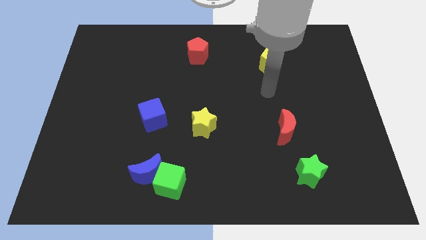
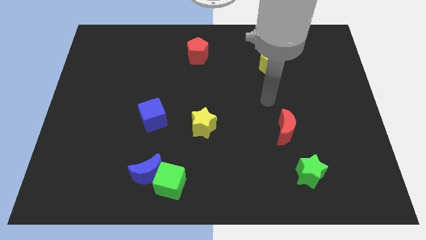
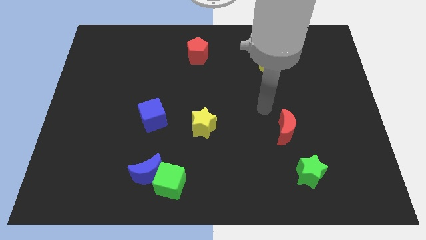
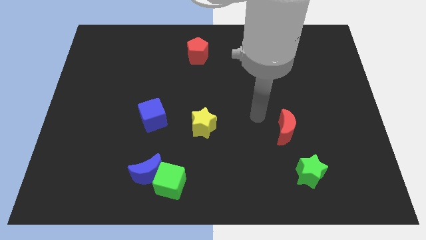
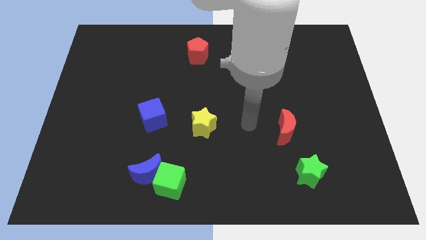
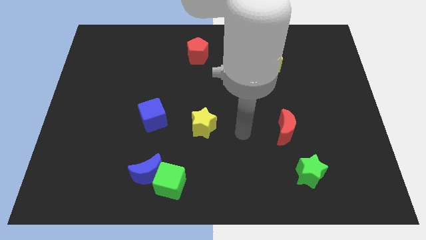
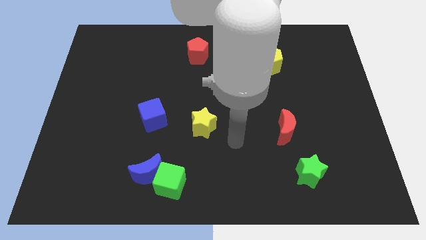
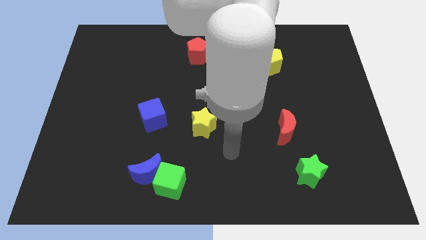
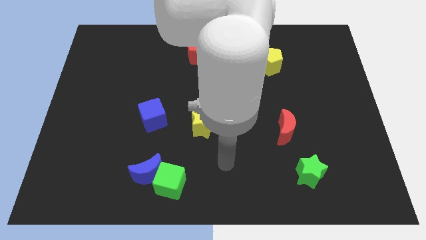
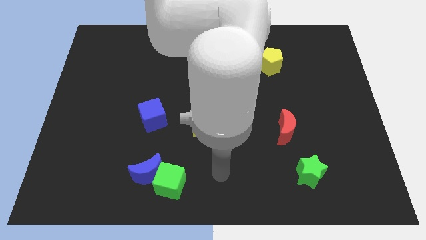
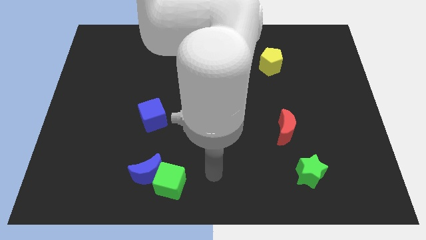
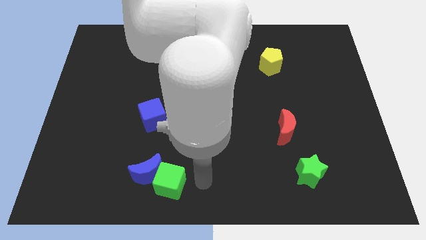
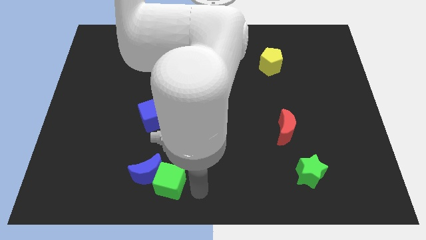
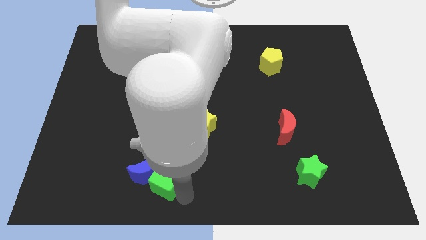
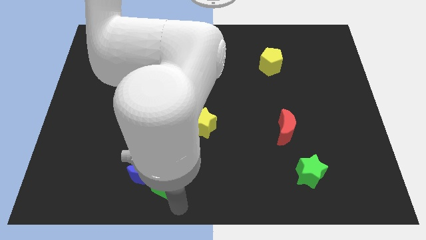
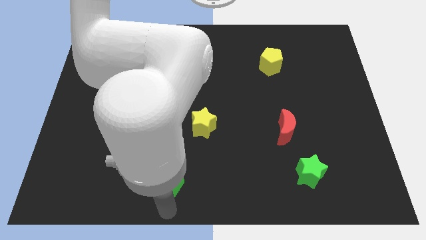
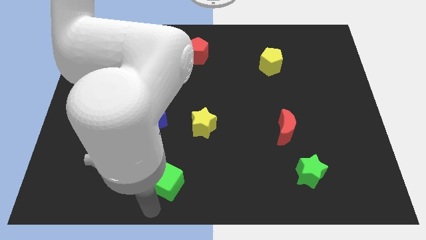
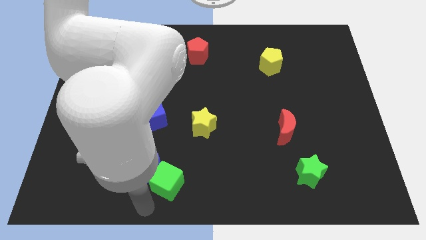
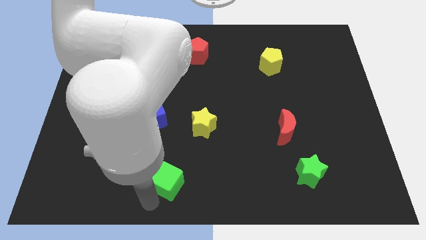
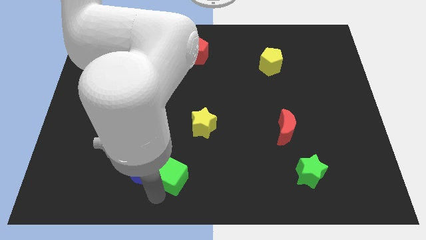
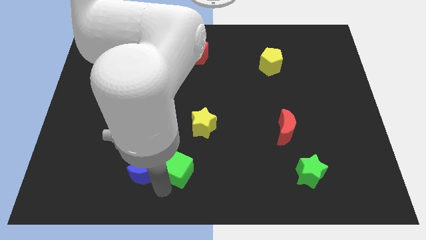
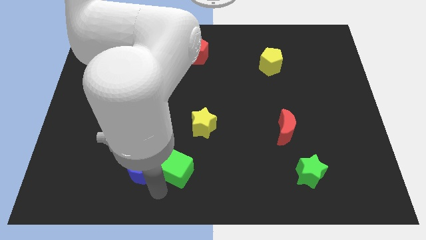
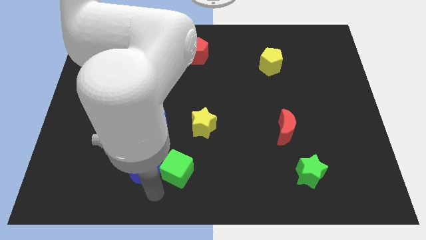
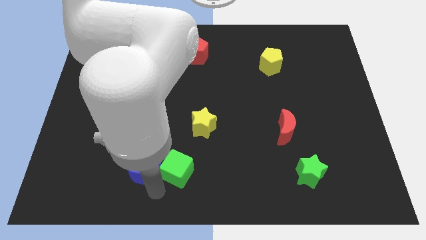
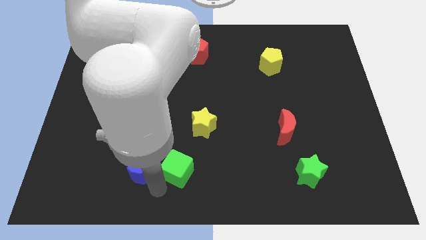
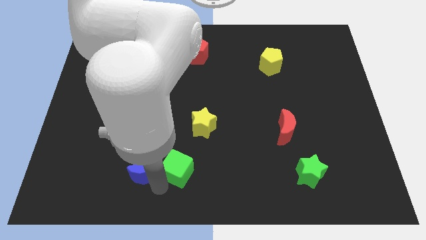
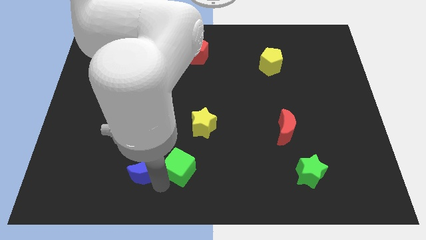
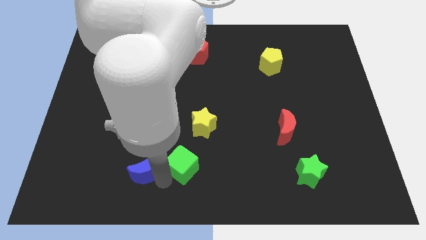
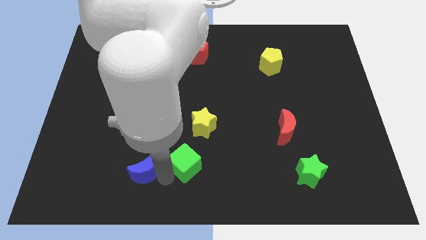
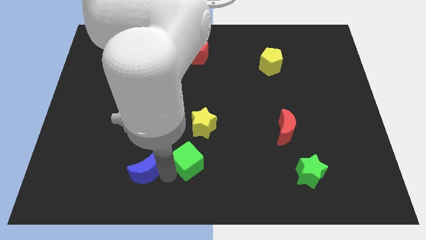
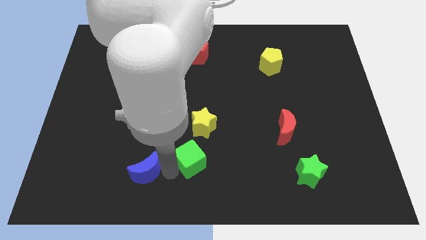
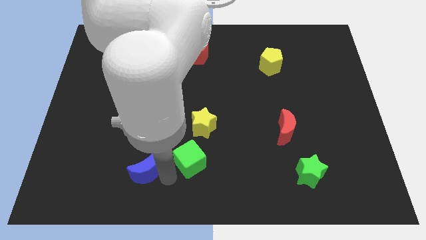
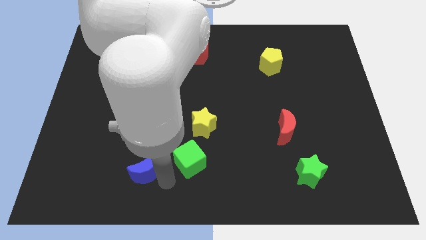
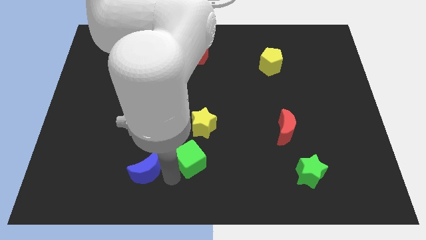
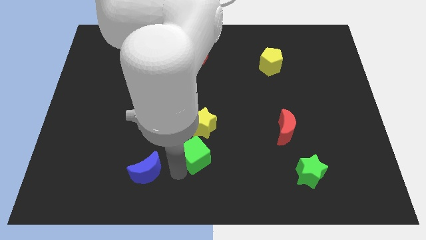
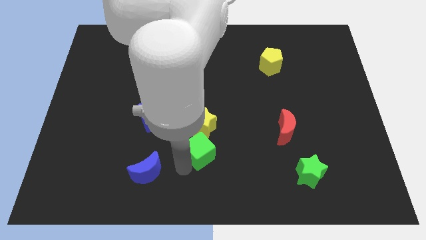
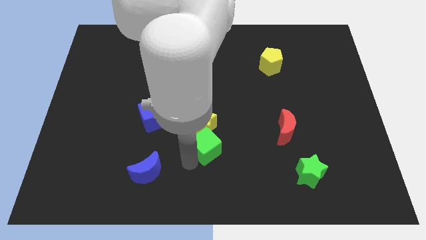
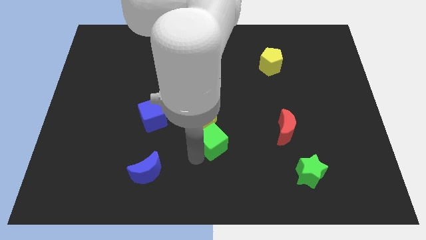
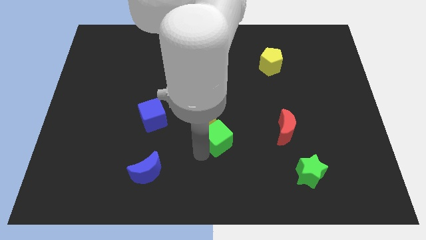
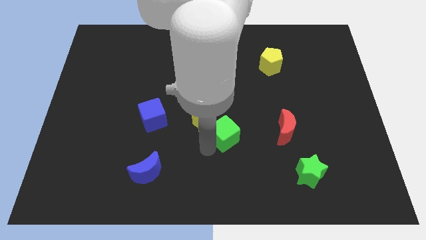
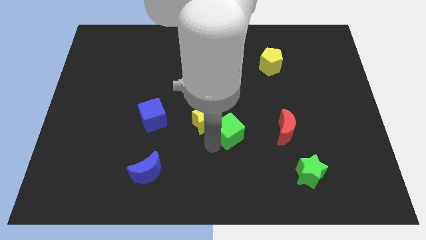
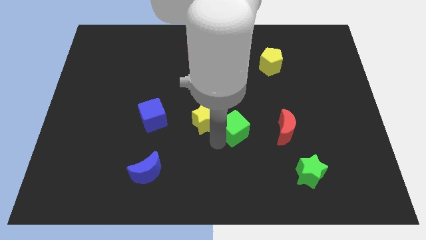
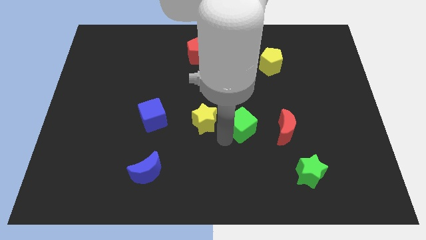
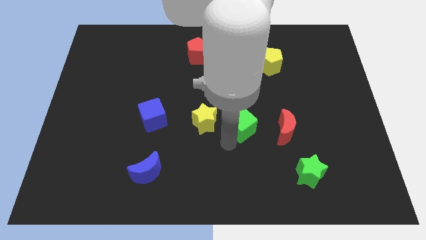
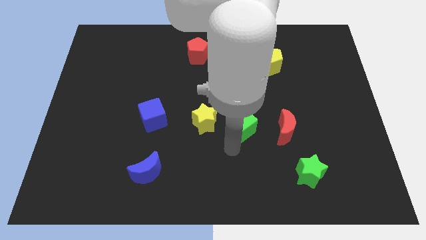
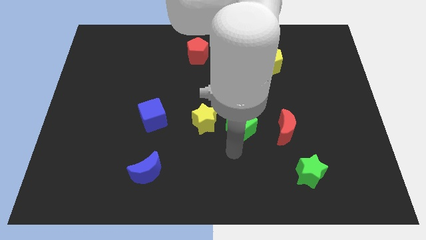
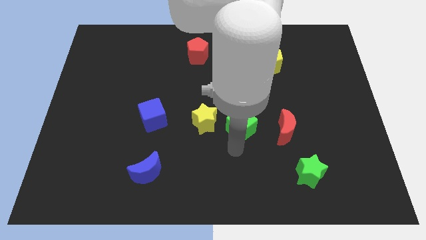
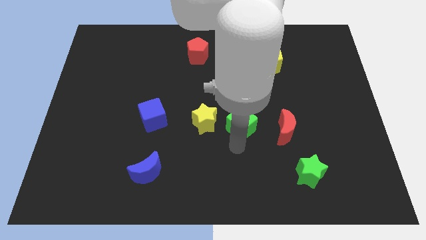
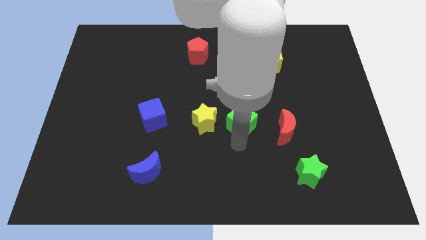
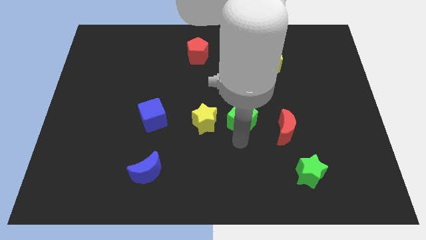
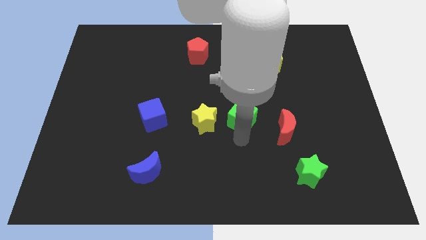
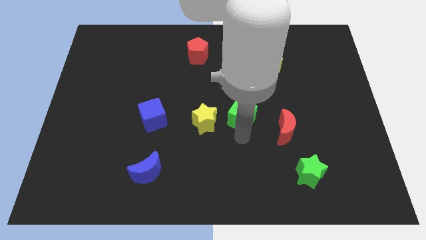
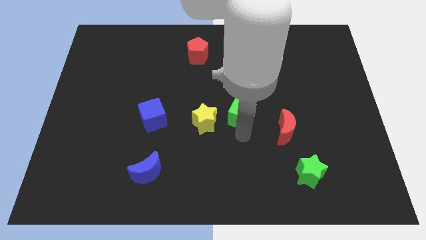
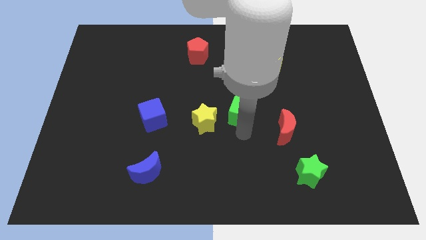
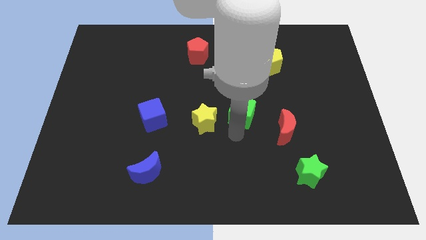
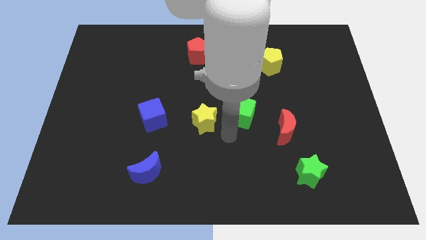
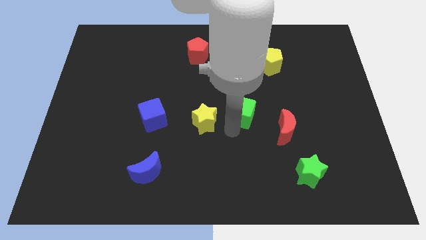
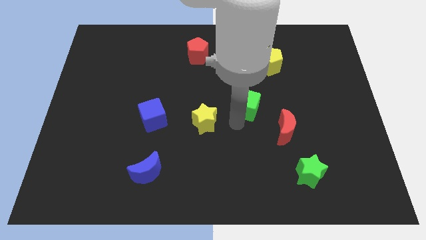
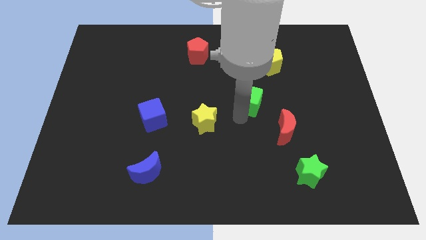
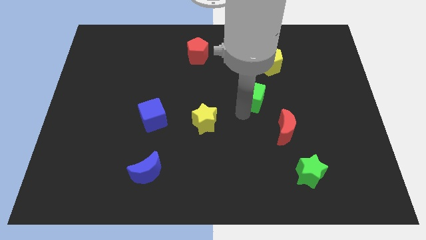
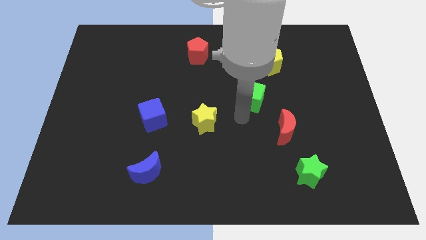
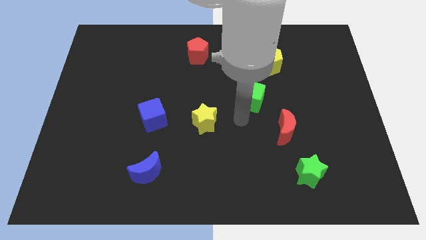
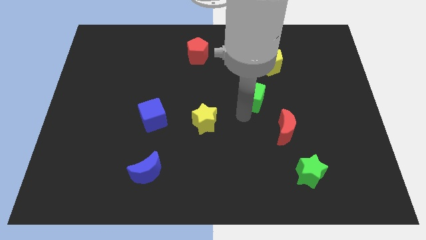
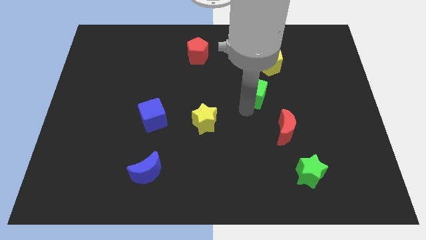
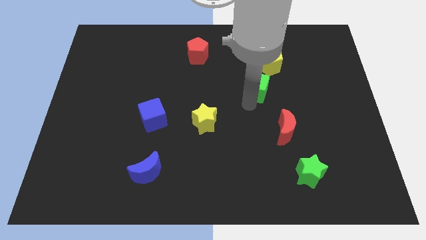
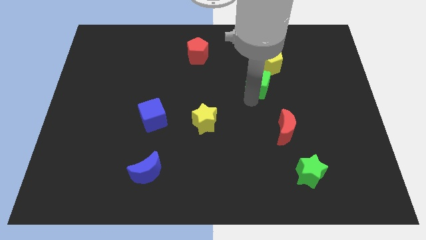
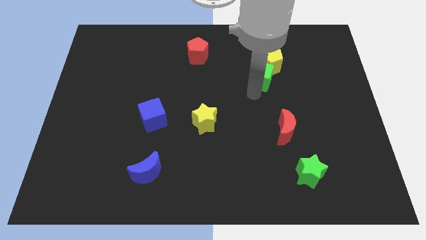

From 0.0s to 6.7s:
slide the green cube to the yellow pentagon

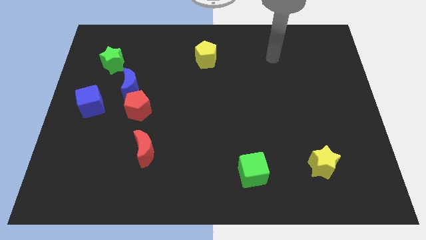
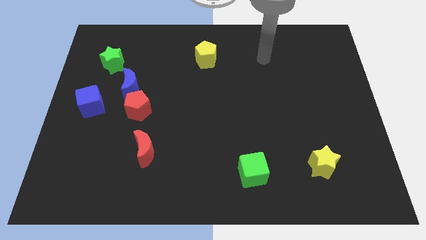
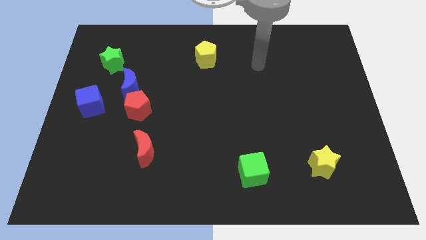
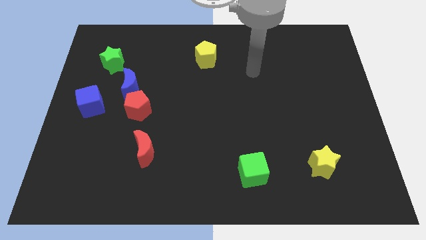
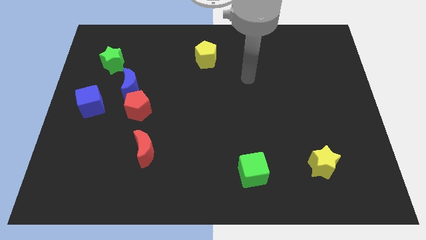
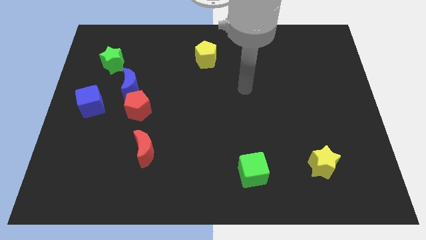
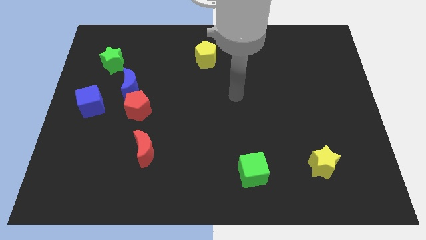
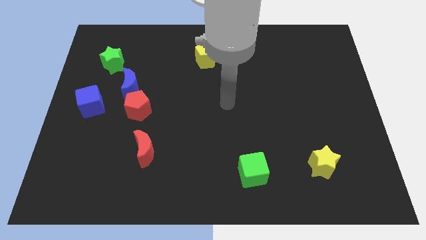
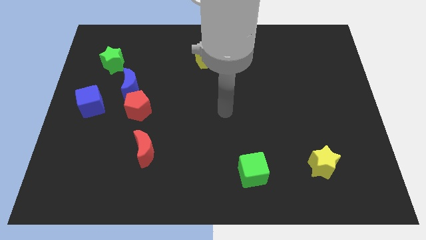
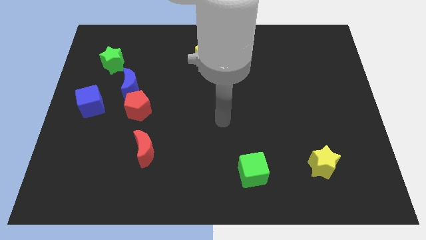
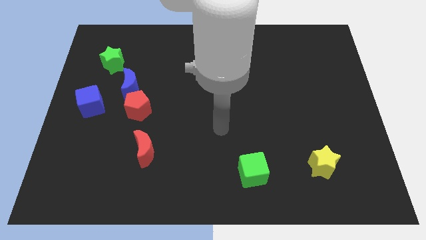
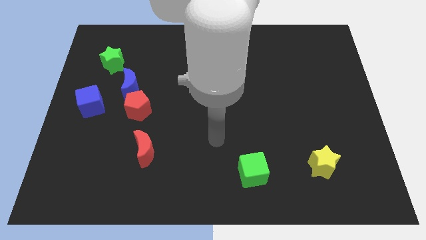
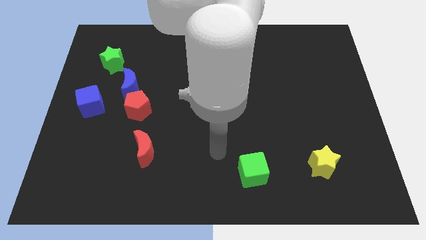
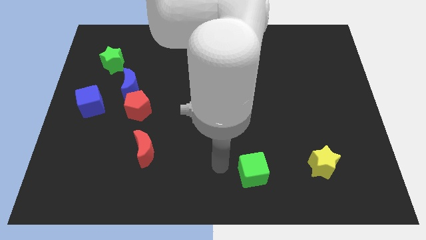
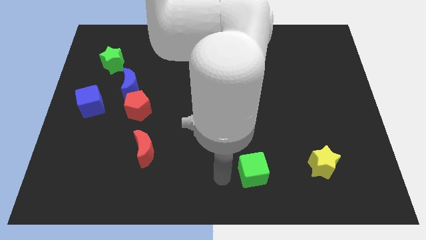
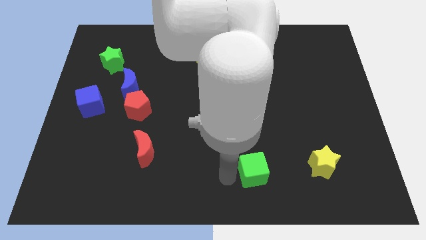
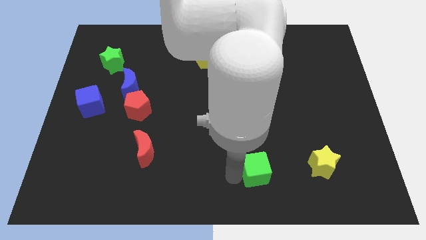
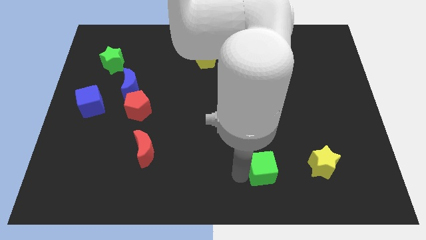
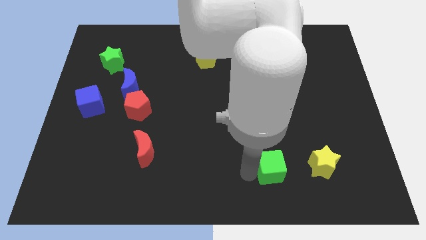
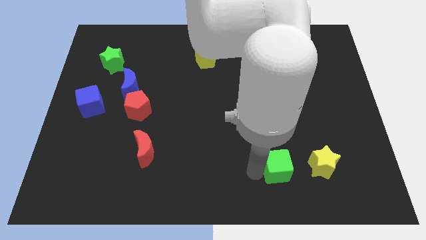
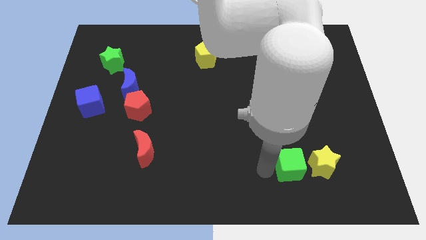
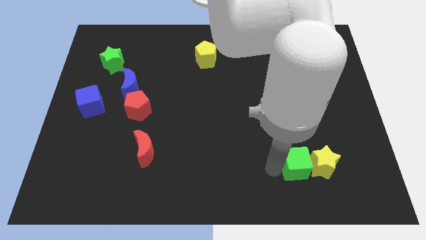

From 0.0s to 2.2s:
move the green cube next to the yellow star
